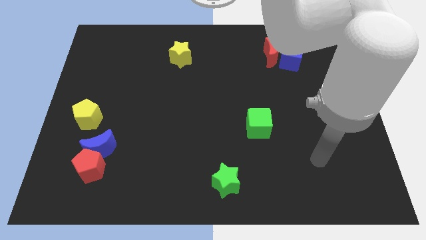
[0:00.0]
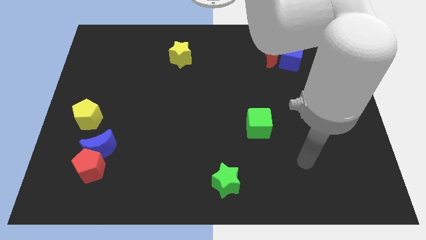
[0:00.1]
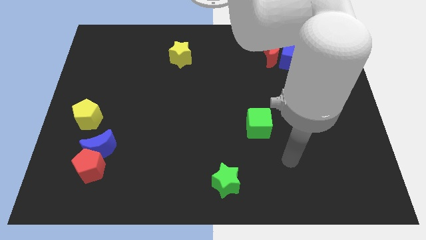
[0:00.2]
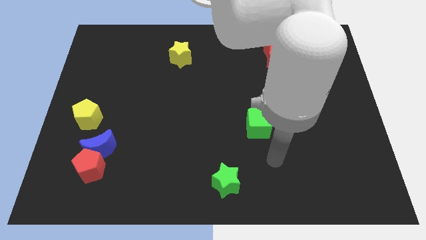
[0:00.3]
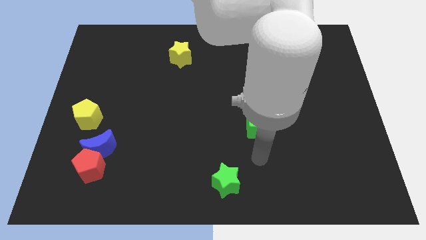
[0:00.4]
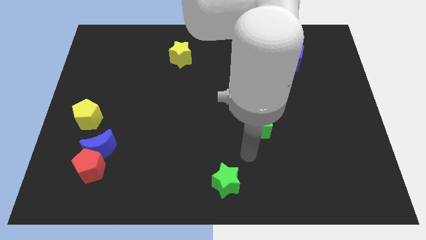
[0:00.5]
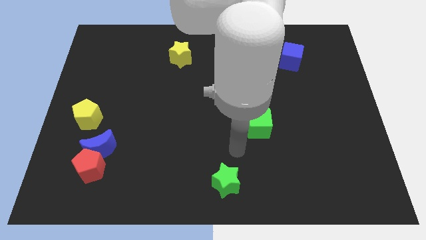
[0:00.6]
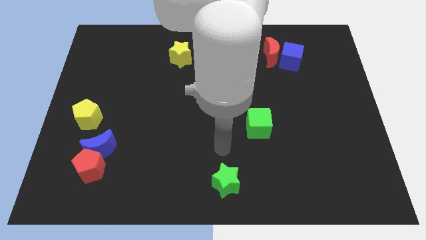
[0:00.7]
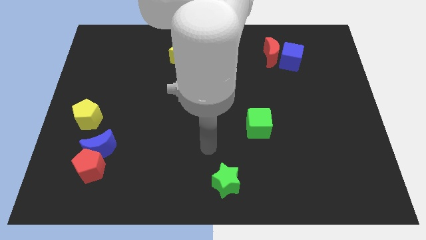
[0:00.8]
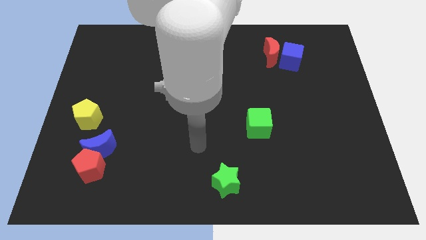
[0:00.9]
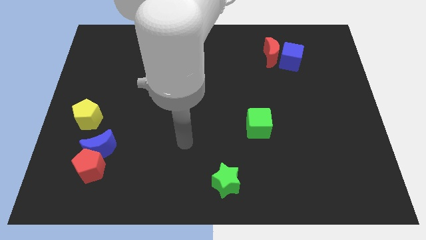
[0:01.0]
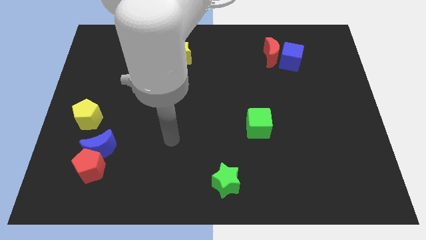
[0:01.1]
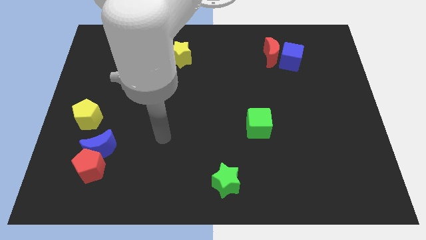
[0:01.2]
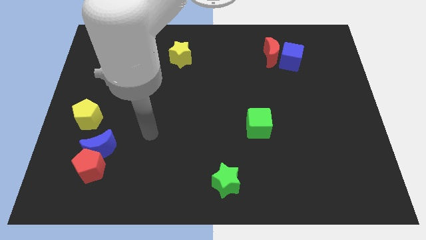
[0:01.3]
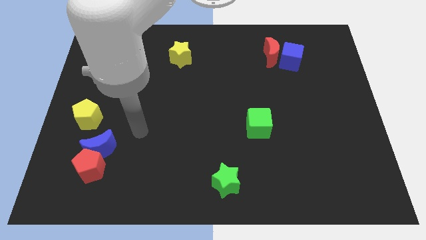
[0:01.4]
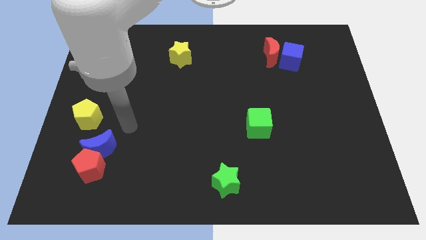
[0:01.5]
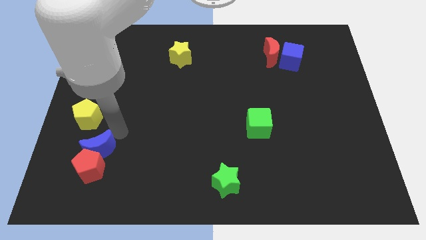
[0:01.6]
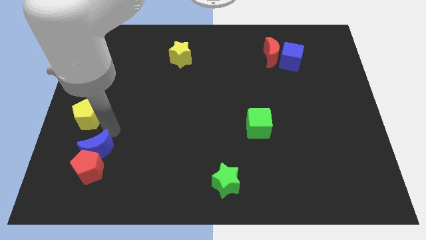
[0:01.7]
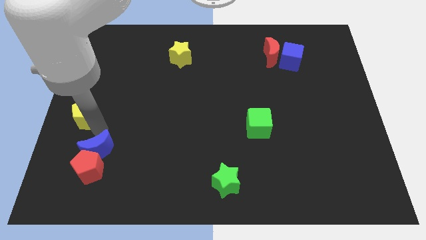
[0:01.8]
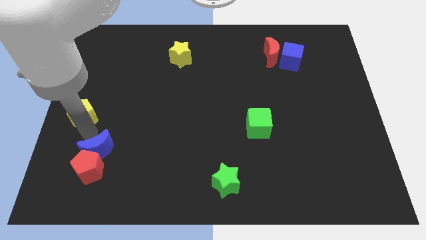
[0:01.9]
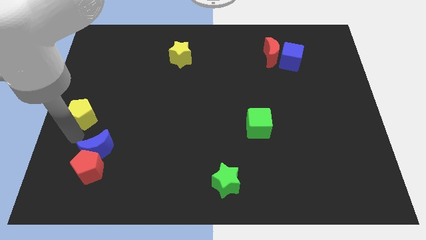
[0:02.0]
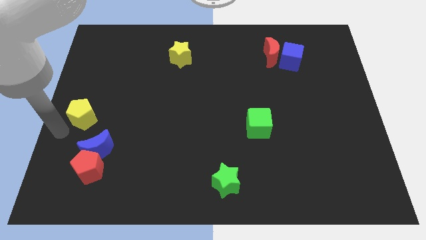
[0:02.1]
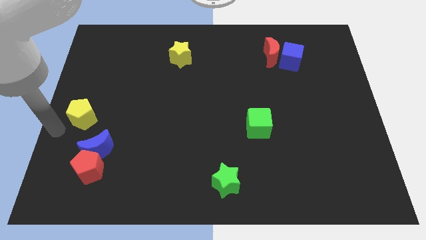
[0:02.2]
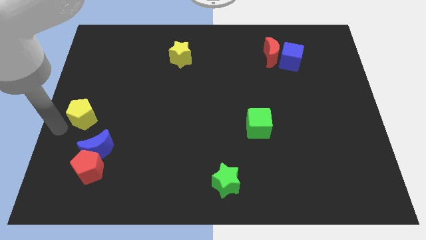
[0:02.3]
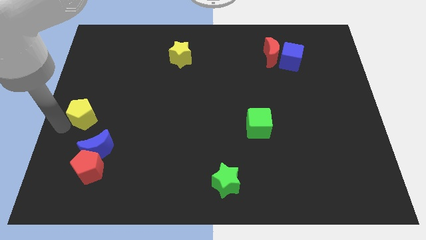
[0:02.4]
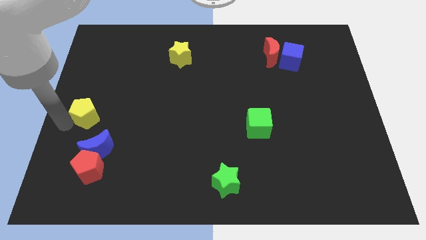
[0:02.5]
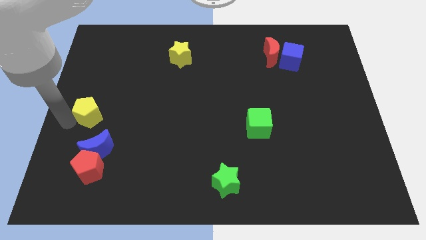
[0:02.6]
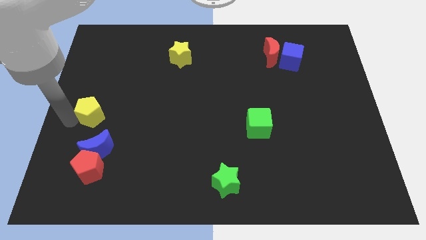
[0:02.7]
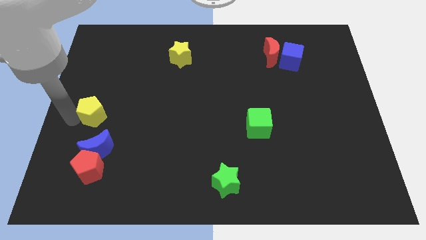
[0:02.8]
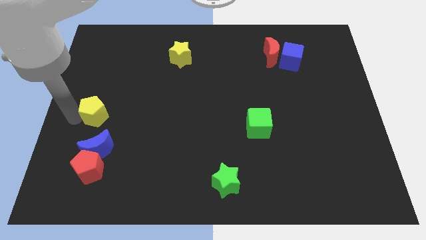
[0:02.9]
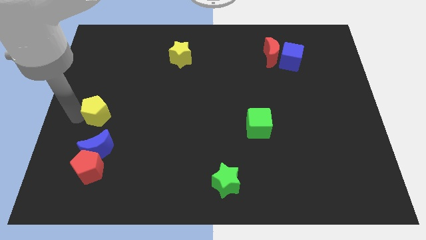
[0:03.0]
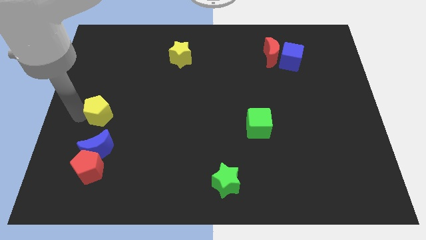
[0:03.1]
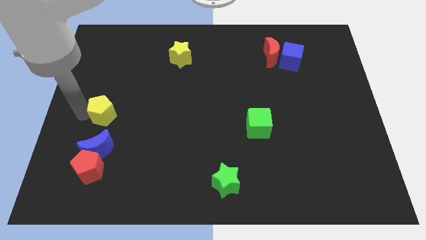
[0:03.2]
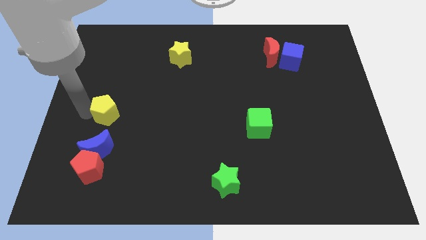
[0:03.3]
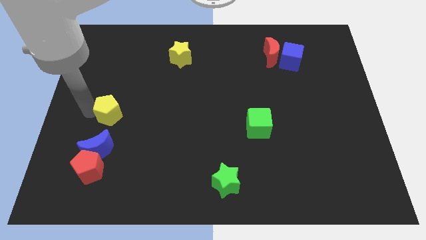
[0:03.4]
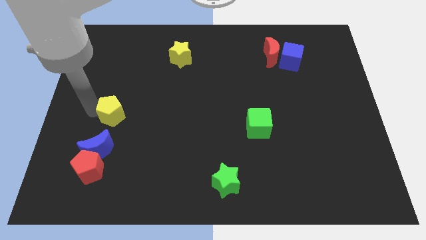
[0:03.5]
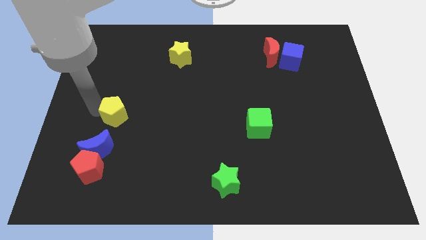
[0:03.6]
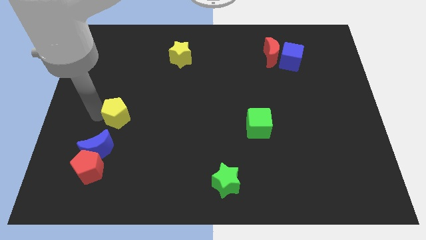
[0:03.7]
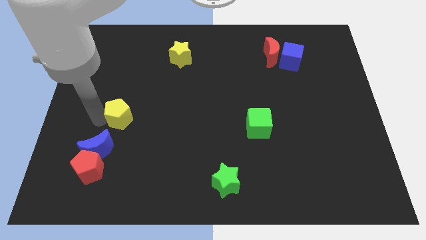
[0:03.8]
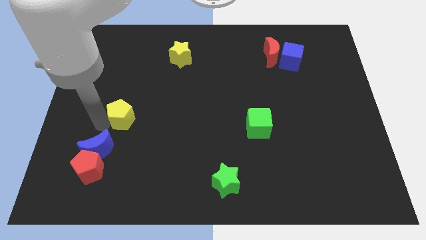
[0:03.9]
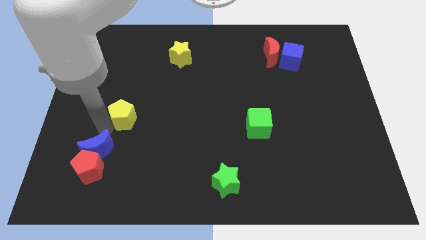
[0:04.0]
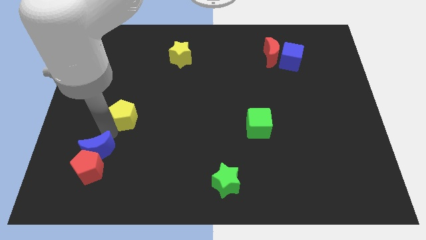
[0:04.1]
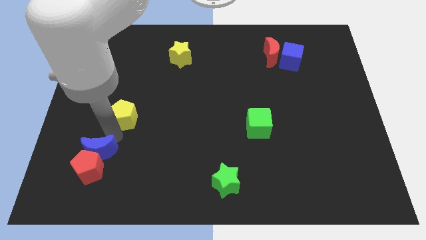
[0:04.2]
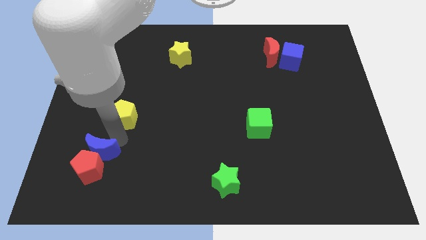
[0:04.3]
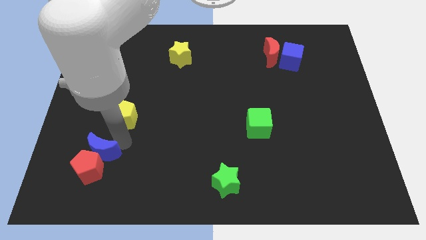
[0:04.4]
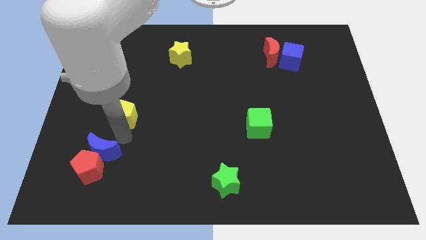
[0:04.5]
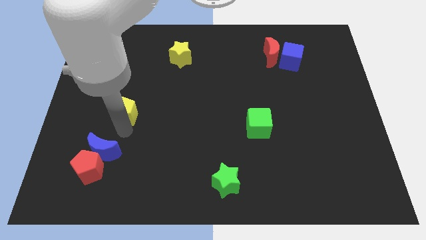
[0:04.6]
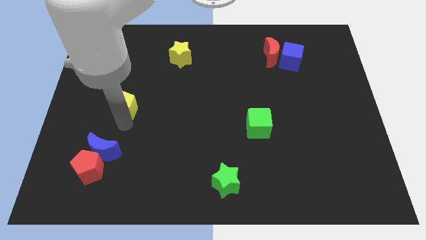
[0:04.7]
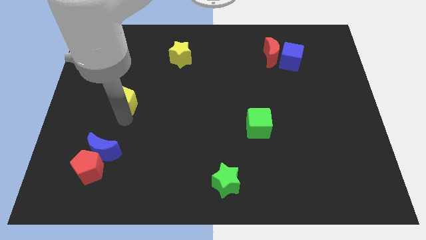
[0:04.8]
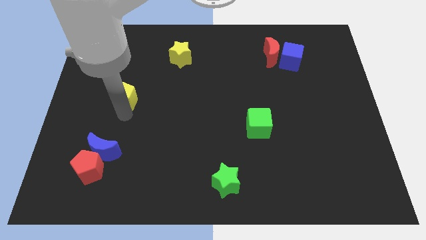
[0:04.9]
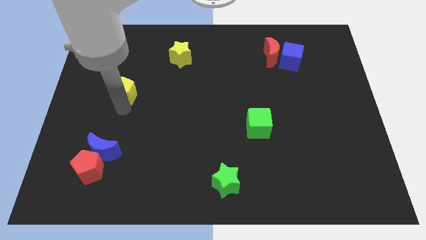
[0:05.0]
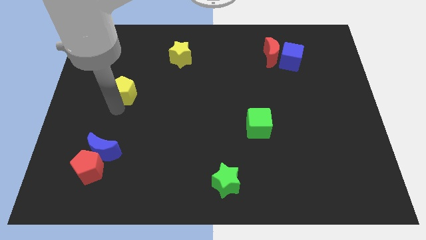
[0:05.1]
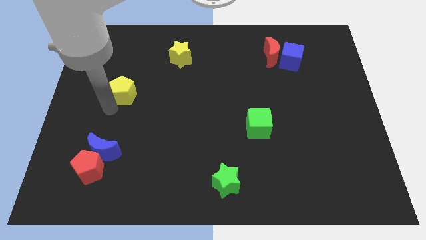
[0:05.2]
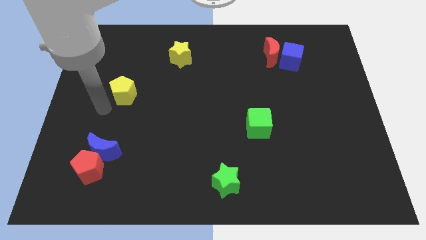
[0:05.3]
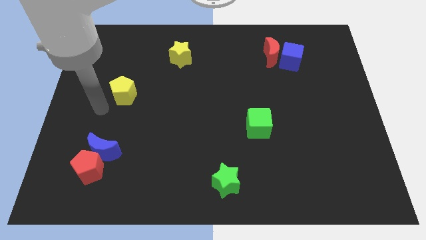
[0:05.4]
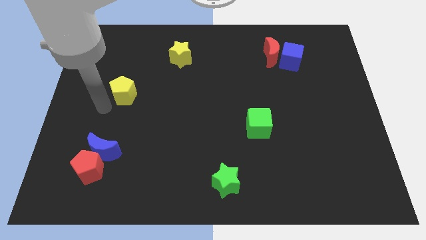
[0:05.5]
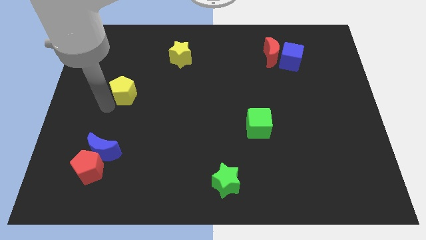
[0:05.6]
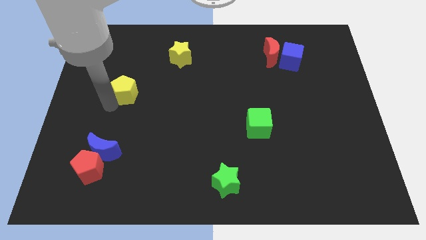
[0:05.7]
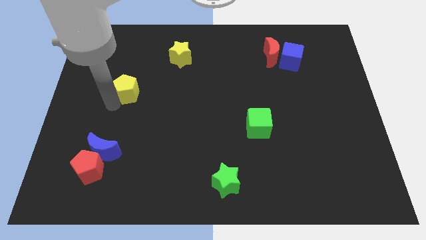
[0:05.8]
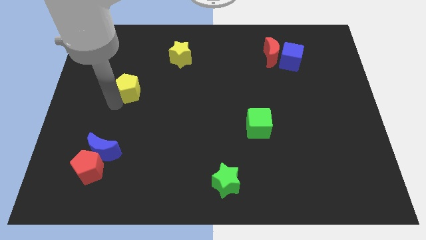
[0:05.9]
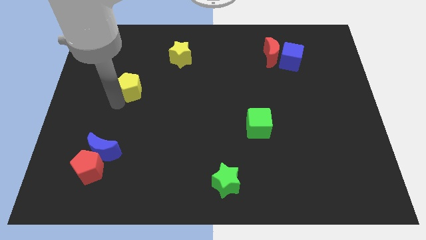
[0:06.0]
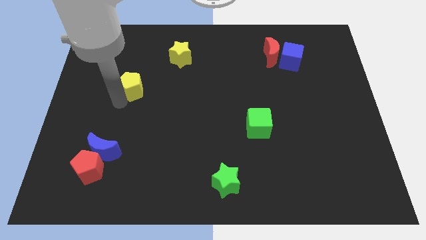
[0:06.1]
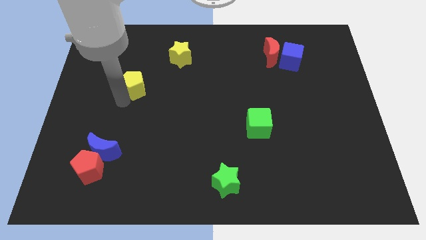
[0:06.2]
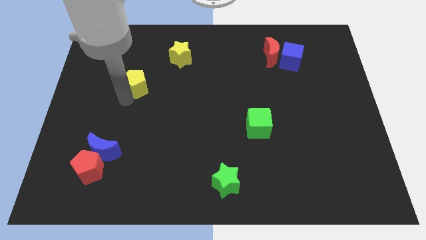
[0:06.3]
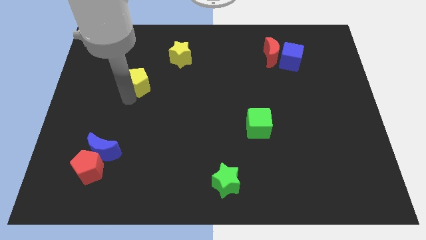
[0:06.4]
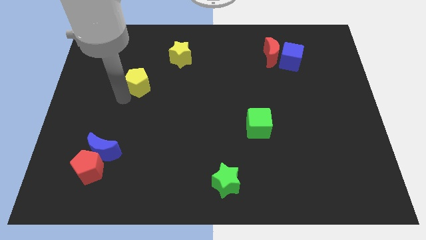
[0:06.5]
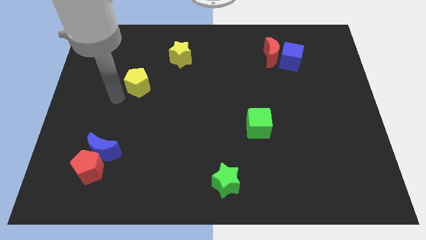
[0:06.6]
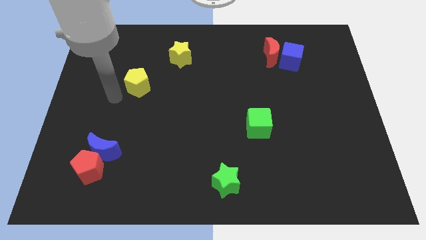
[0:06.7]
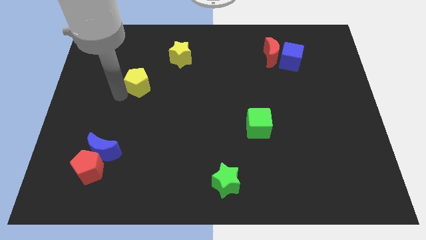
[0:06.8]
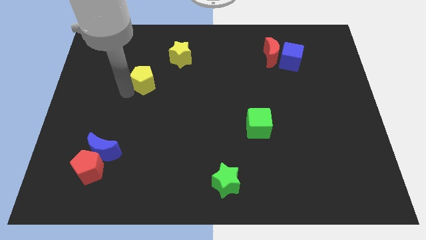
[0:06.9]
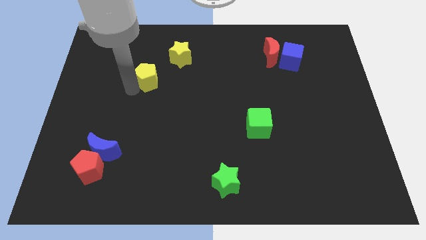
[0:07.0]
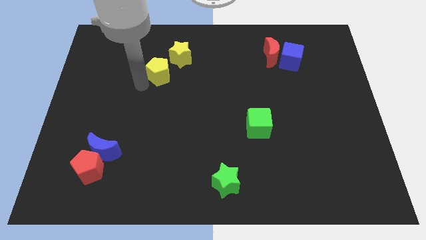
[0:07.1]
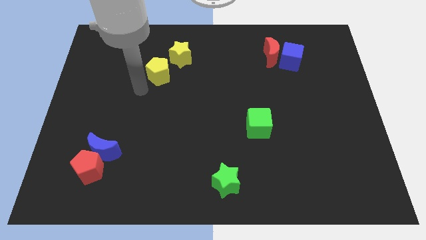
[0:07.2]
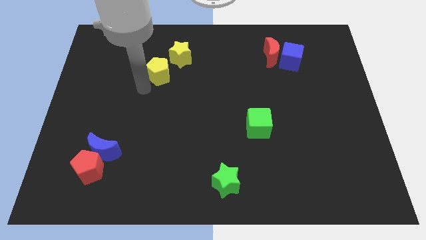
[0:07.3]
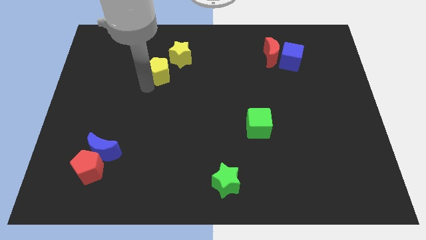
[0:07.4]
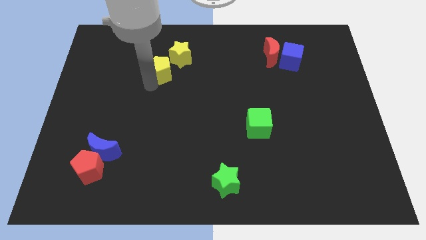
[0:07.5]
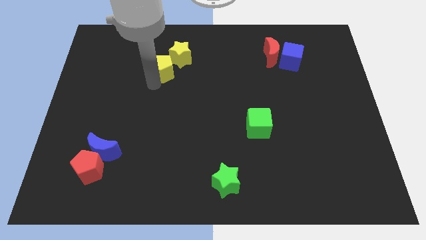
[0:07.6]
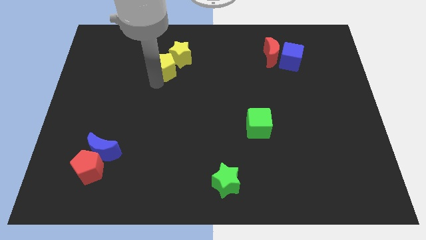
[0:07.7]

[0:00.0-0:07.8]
slide the yellow pentagon towards the yellow star
